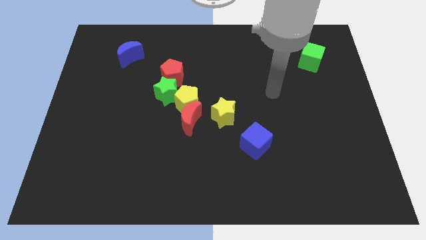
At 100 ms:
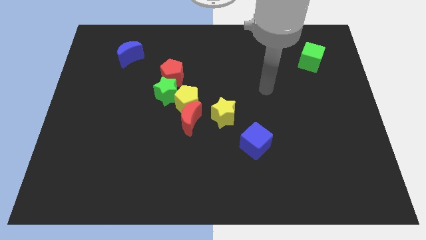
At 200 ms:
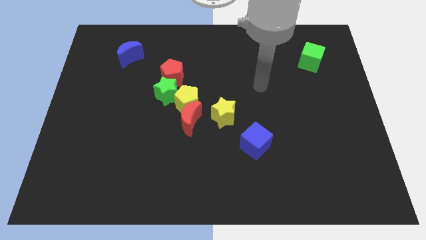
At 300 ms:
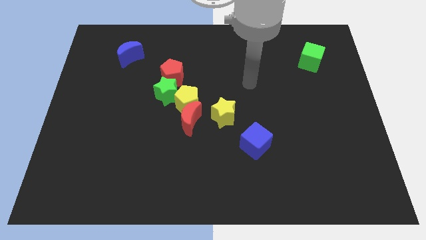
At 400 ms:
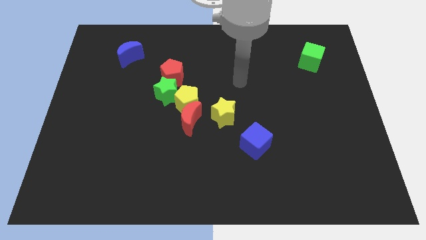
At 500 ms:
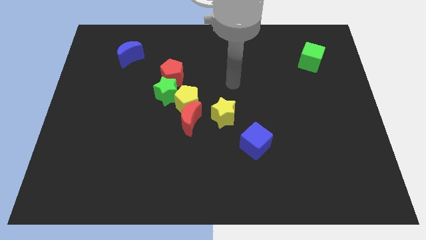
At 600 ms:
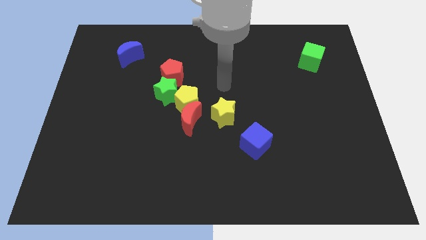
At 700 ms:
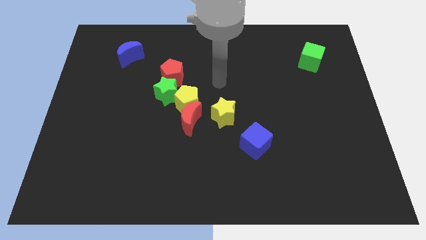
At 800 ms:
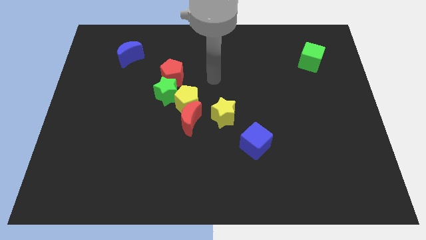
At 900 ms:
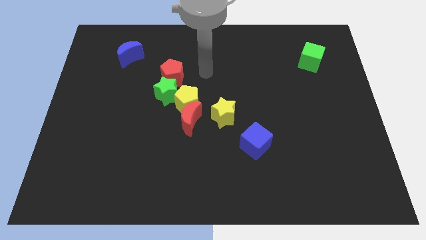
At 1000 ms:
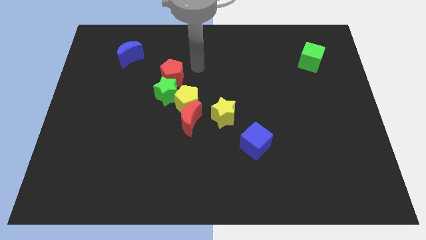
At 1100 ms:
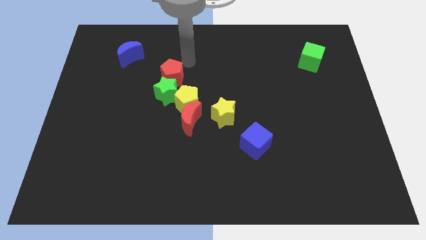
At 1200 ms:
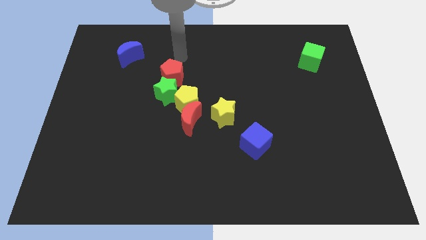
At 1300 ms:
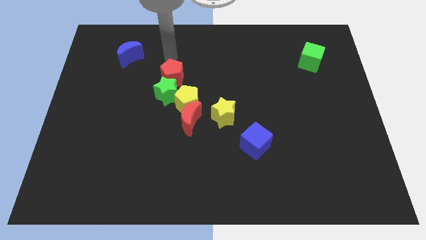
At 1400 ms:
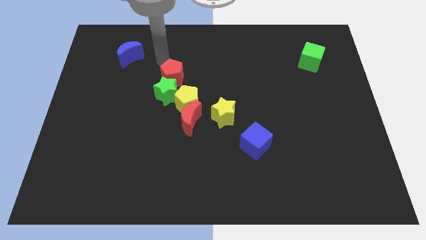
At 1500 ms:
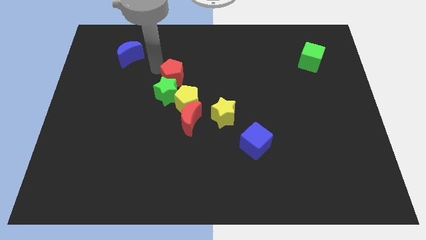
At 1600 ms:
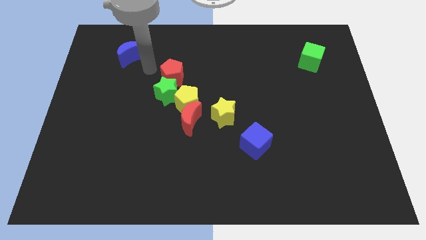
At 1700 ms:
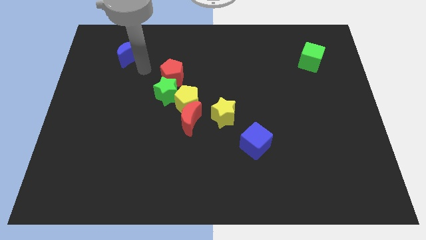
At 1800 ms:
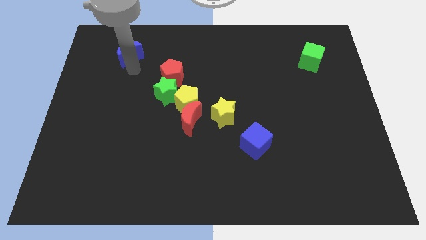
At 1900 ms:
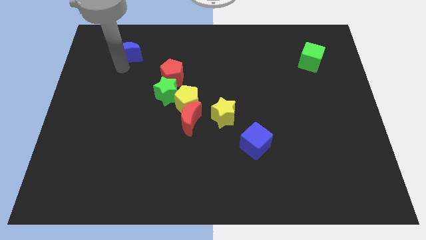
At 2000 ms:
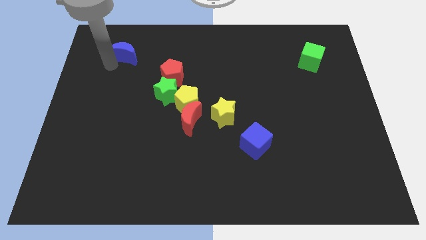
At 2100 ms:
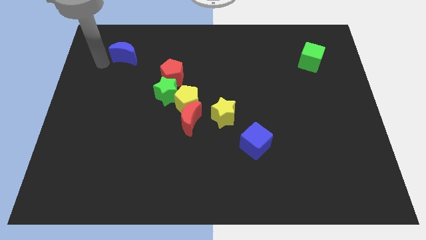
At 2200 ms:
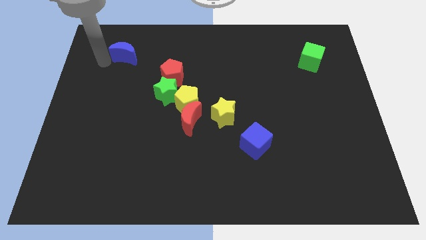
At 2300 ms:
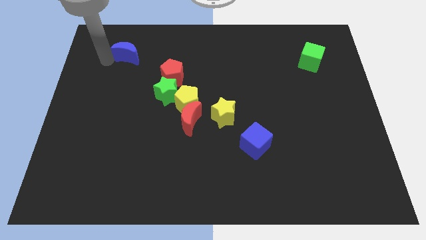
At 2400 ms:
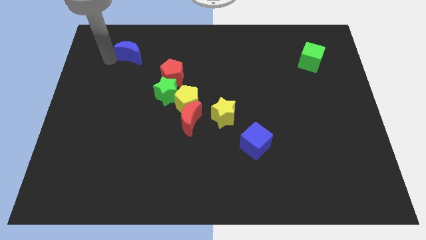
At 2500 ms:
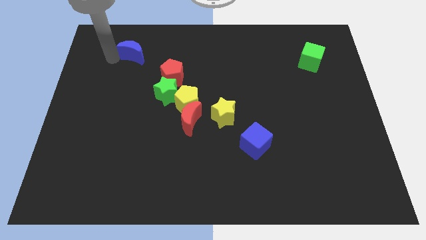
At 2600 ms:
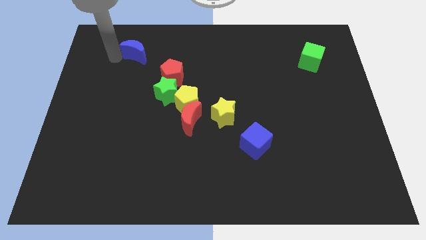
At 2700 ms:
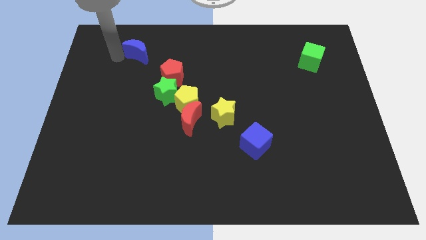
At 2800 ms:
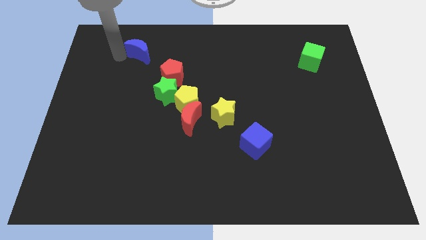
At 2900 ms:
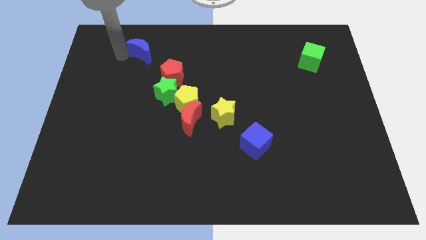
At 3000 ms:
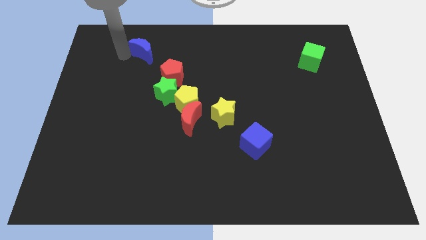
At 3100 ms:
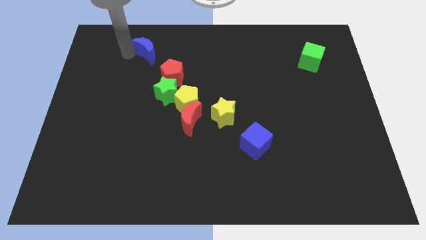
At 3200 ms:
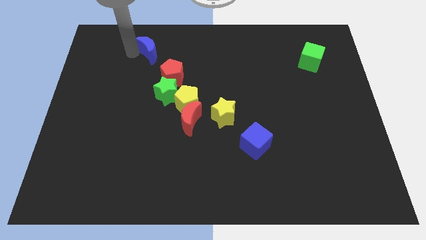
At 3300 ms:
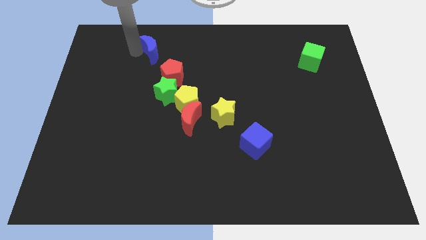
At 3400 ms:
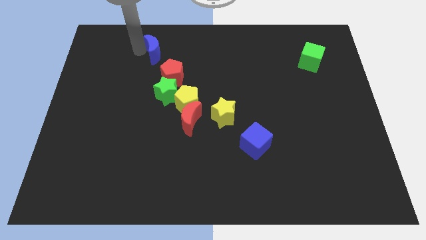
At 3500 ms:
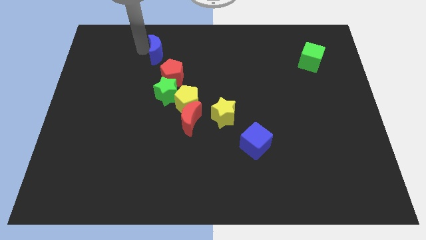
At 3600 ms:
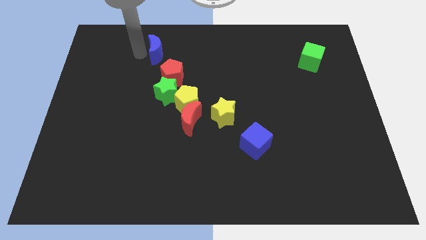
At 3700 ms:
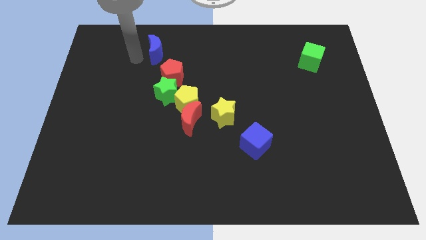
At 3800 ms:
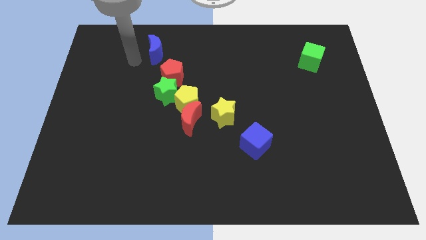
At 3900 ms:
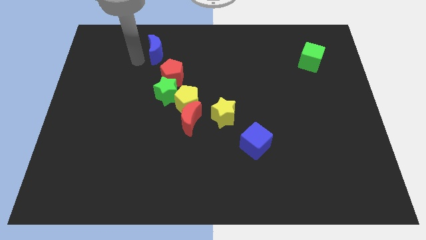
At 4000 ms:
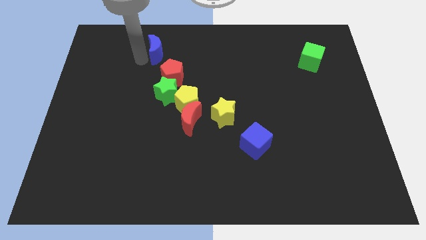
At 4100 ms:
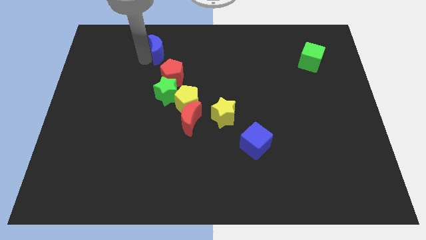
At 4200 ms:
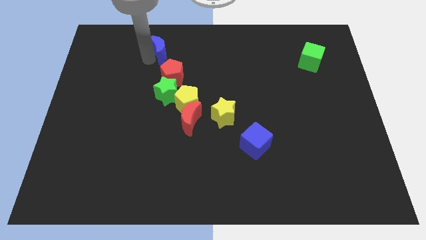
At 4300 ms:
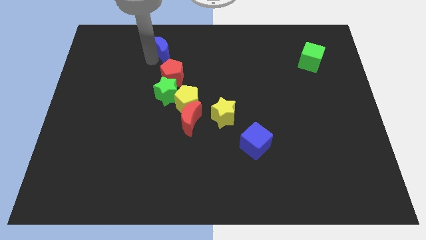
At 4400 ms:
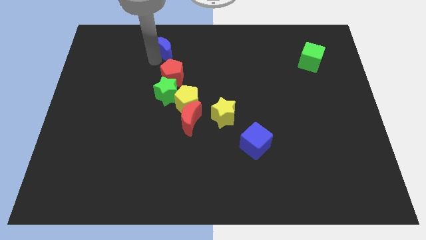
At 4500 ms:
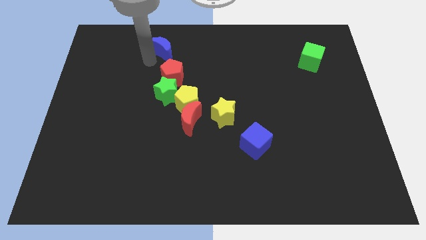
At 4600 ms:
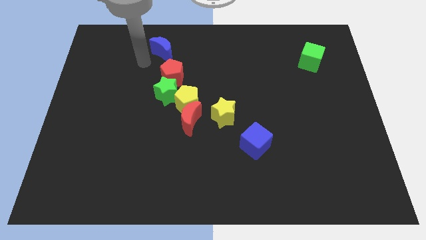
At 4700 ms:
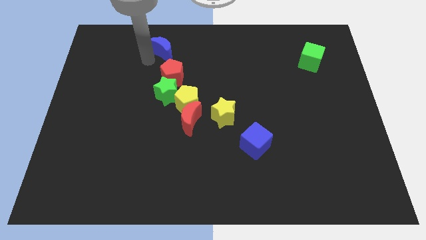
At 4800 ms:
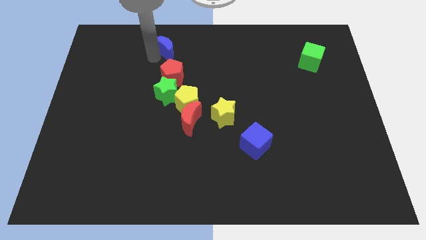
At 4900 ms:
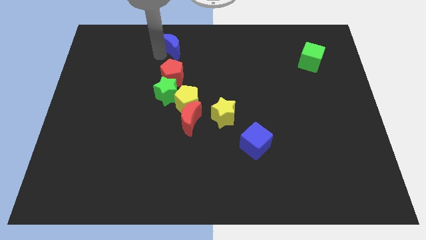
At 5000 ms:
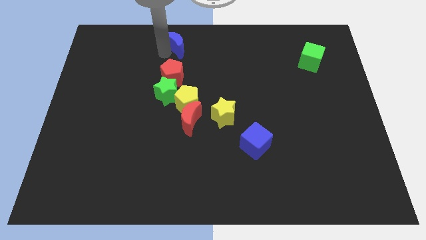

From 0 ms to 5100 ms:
put the blue moon to the top side

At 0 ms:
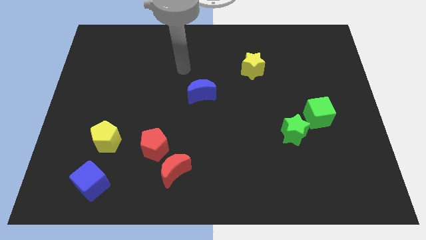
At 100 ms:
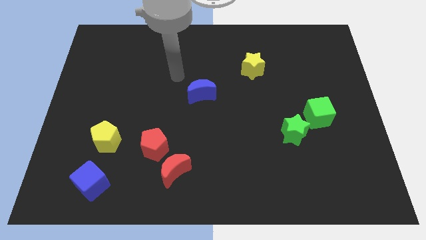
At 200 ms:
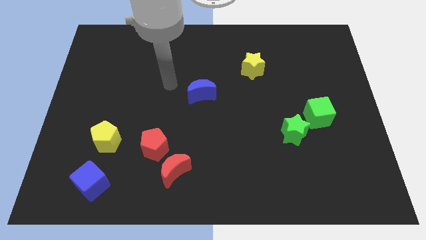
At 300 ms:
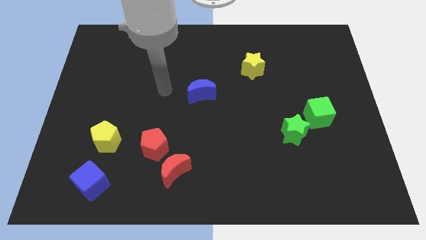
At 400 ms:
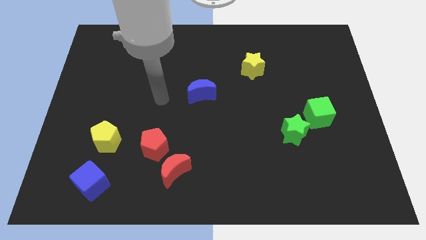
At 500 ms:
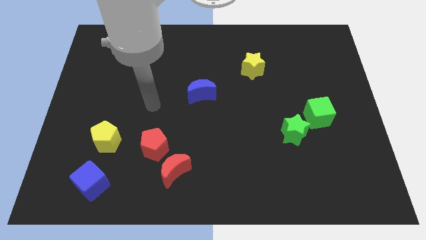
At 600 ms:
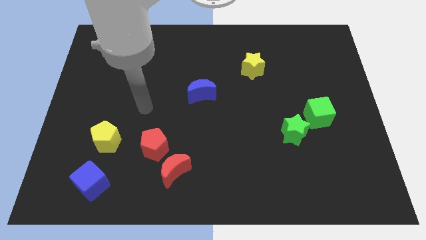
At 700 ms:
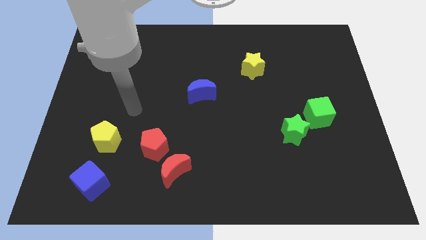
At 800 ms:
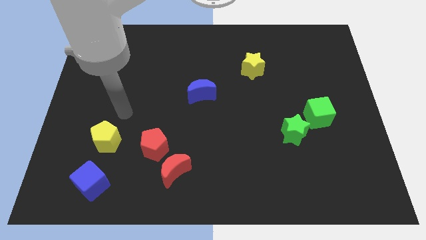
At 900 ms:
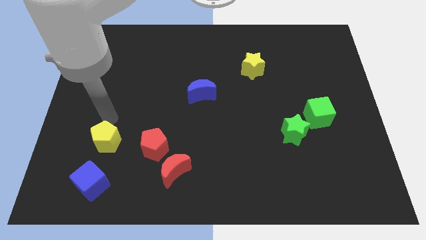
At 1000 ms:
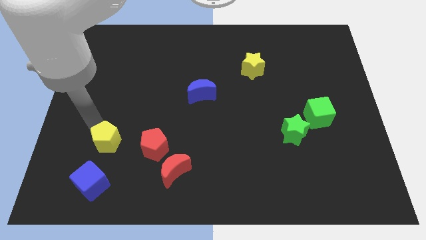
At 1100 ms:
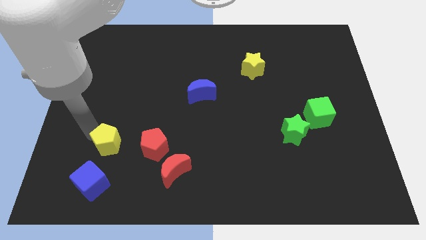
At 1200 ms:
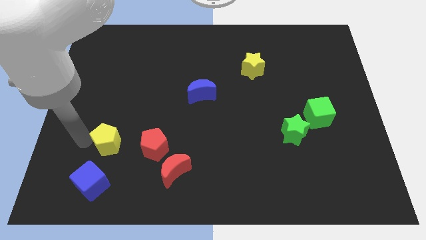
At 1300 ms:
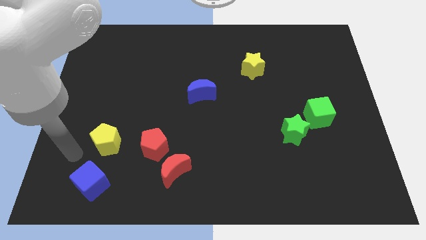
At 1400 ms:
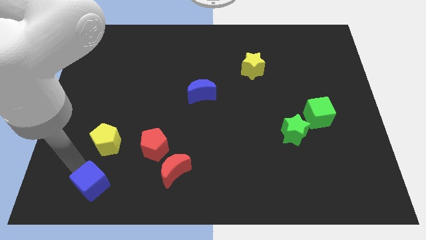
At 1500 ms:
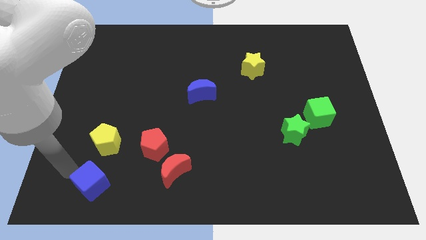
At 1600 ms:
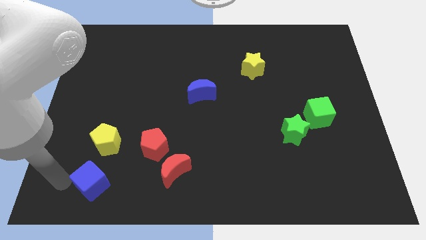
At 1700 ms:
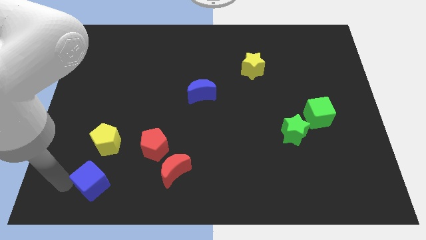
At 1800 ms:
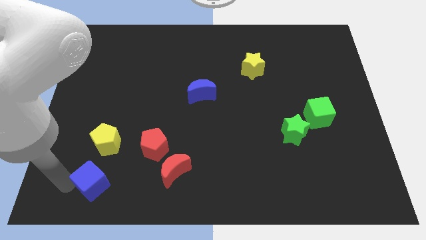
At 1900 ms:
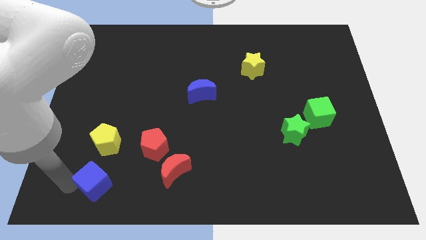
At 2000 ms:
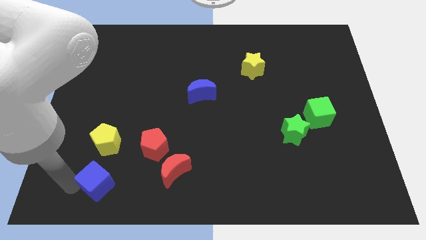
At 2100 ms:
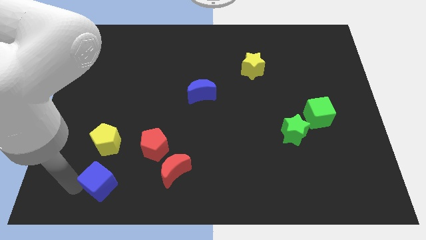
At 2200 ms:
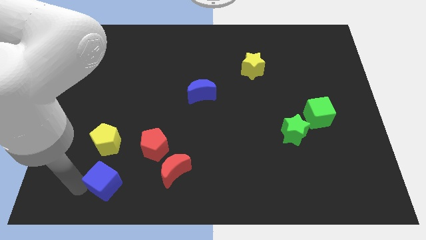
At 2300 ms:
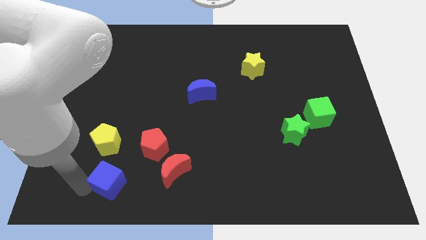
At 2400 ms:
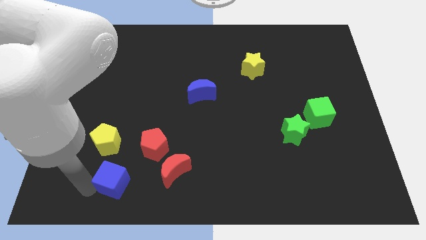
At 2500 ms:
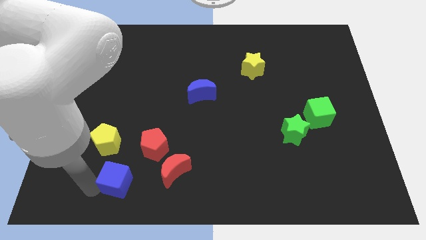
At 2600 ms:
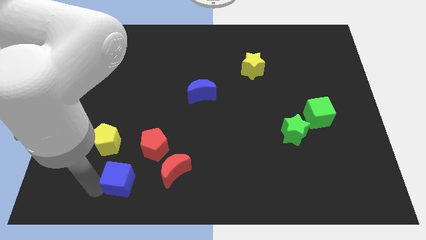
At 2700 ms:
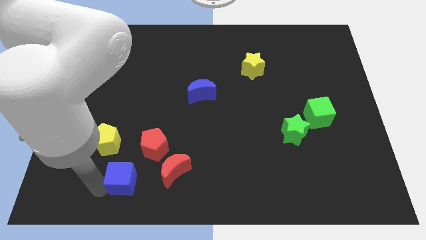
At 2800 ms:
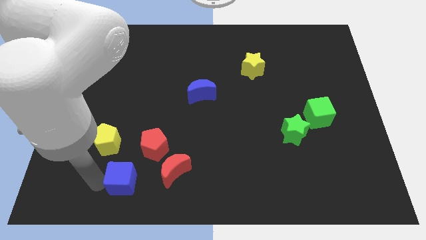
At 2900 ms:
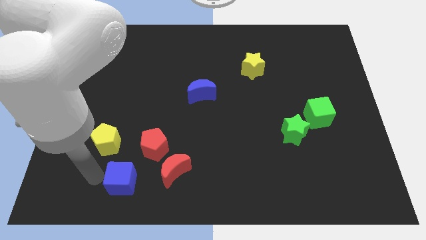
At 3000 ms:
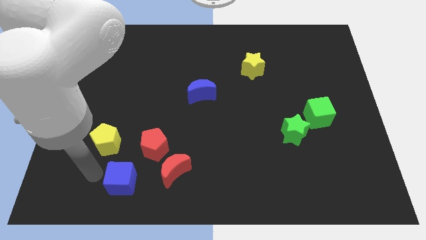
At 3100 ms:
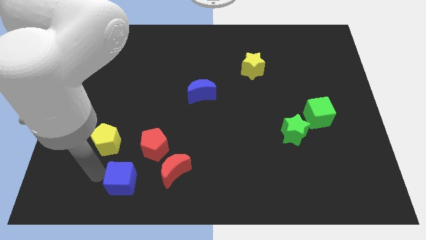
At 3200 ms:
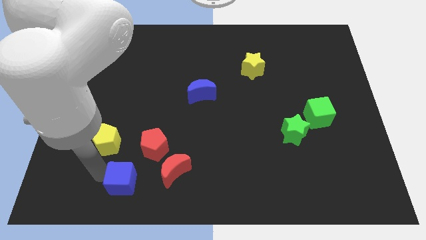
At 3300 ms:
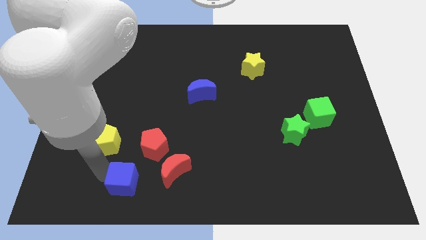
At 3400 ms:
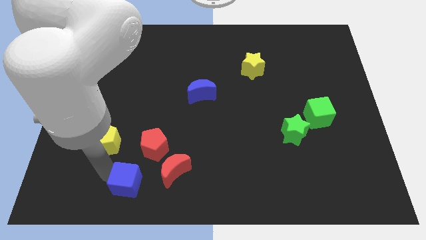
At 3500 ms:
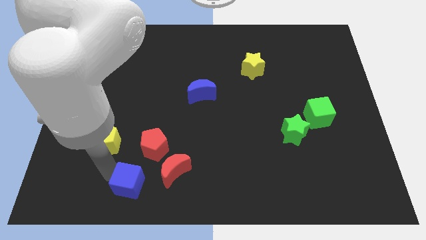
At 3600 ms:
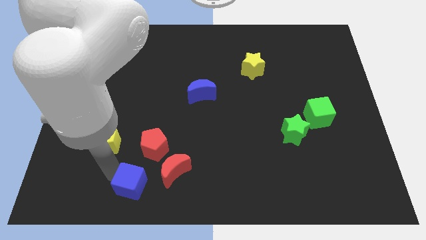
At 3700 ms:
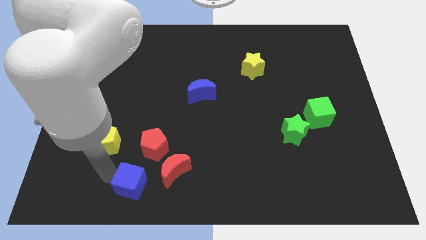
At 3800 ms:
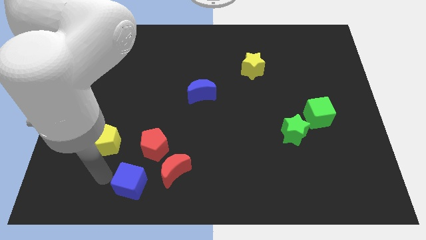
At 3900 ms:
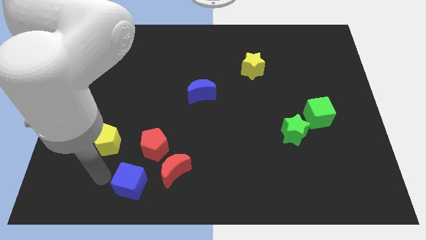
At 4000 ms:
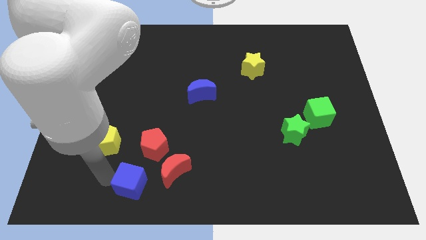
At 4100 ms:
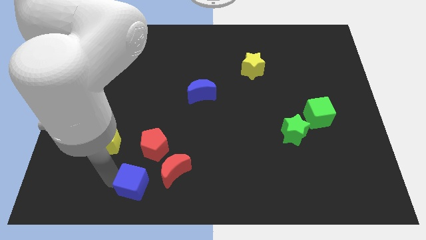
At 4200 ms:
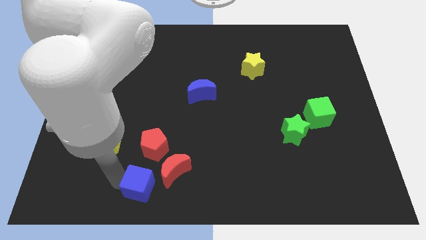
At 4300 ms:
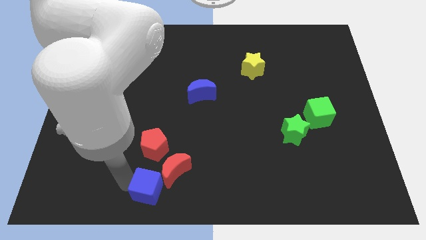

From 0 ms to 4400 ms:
move the blue cube to the bottom
